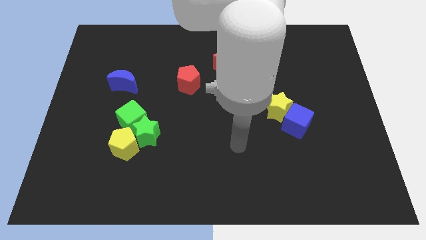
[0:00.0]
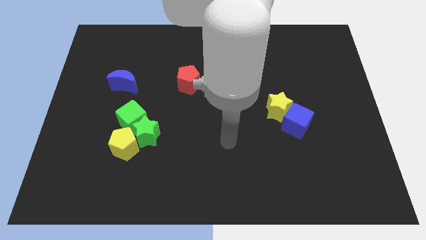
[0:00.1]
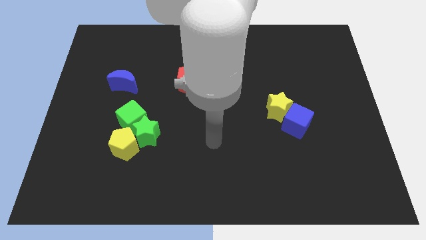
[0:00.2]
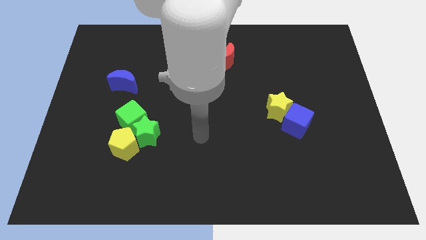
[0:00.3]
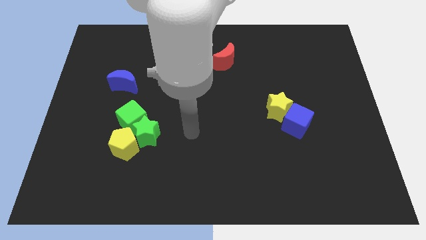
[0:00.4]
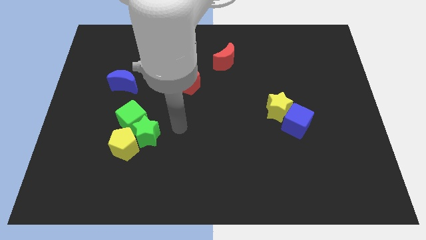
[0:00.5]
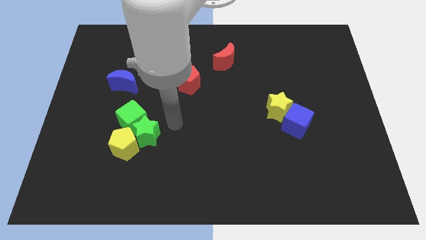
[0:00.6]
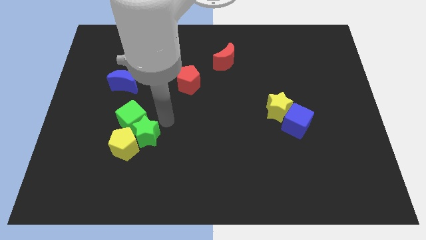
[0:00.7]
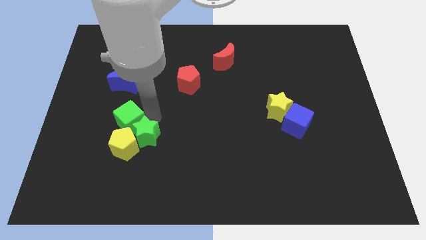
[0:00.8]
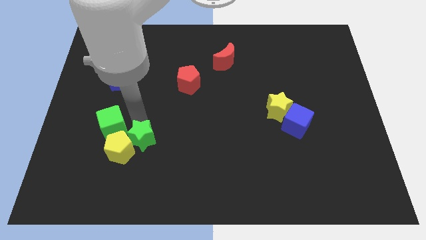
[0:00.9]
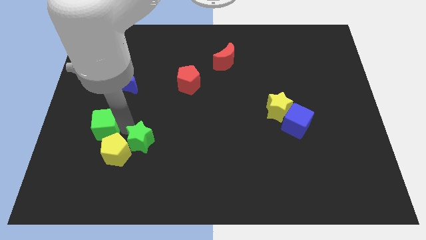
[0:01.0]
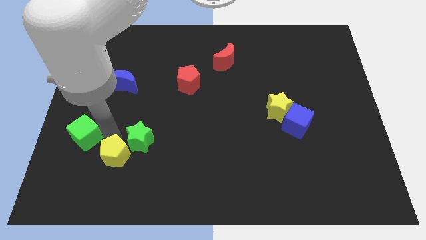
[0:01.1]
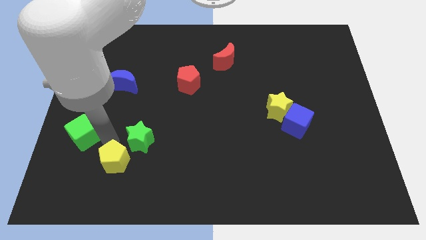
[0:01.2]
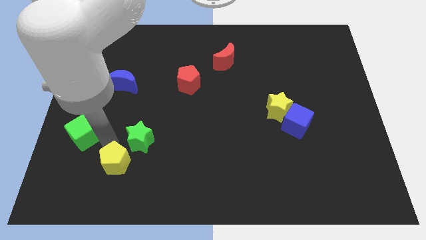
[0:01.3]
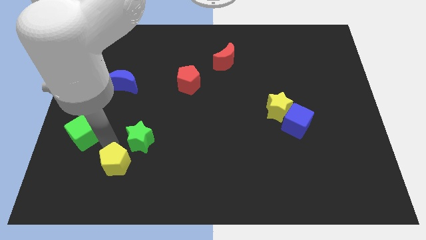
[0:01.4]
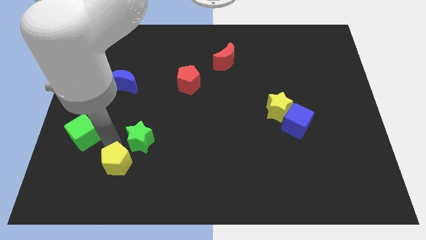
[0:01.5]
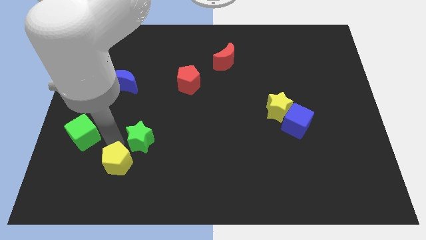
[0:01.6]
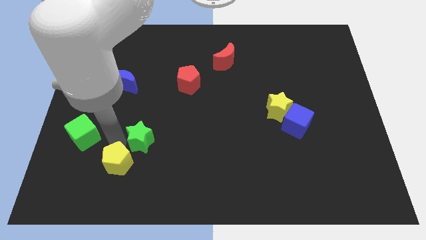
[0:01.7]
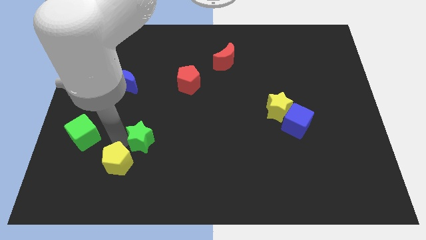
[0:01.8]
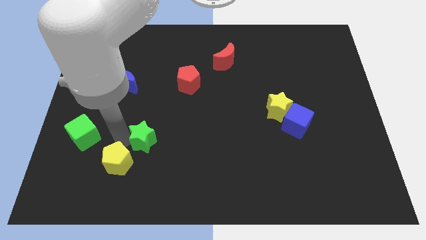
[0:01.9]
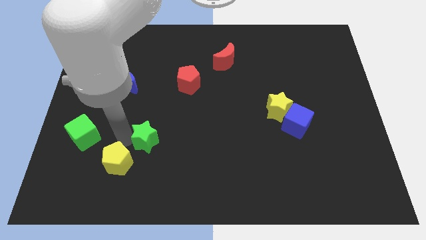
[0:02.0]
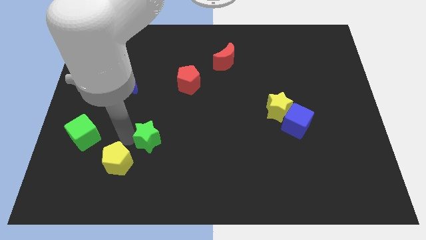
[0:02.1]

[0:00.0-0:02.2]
move the green star away from the green cube and yellow pentagon

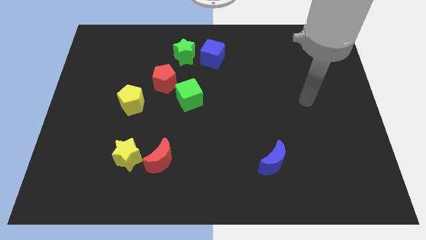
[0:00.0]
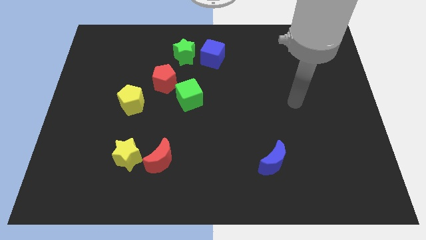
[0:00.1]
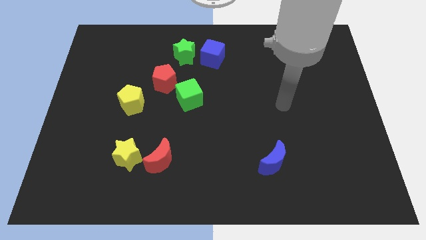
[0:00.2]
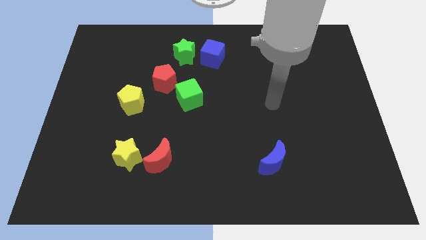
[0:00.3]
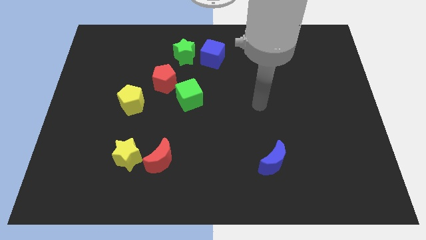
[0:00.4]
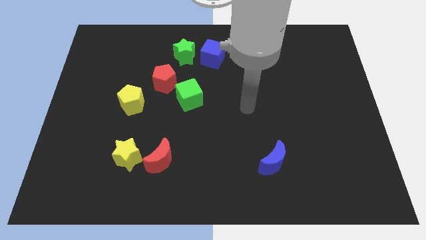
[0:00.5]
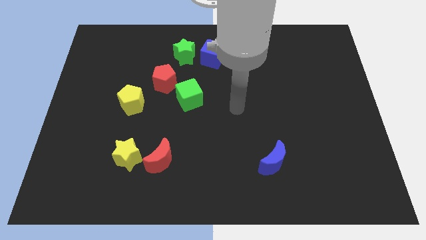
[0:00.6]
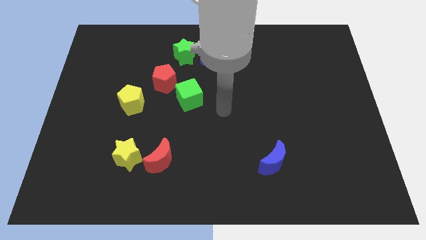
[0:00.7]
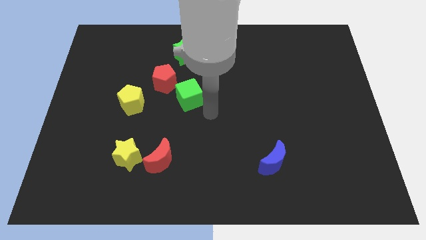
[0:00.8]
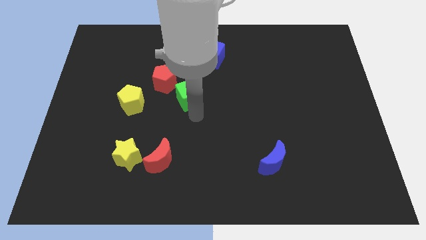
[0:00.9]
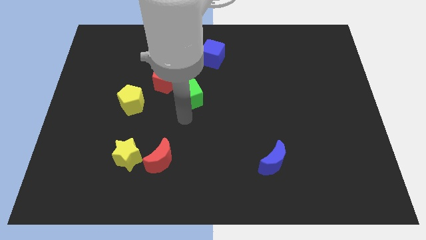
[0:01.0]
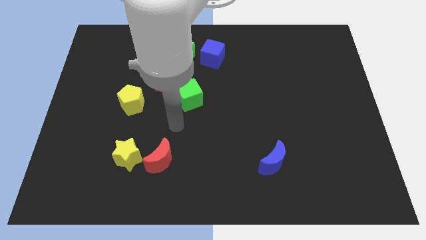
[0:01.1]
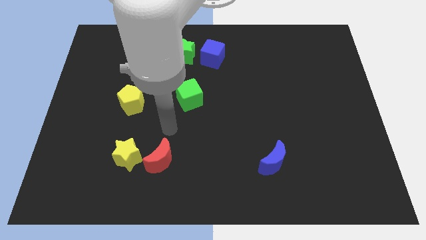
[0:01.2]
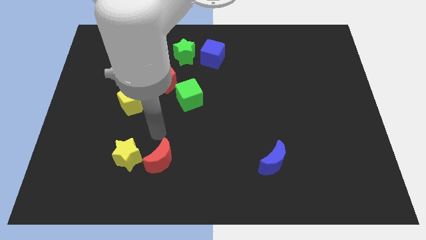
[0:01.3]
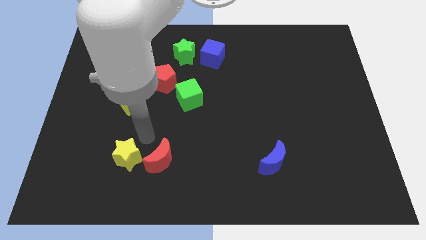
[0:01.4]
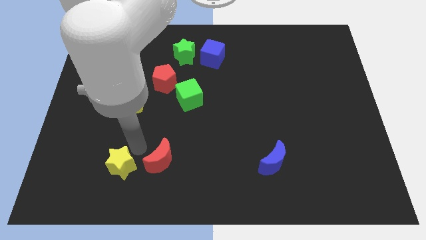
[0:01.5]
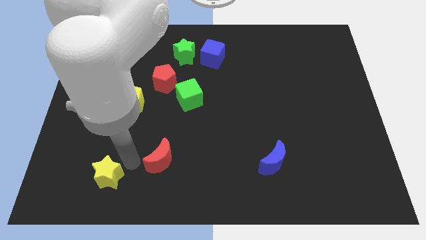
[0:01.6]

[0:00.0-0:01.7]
separate the red moon from the yellow star

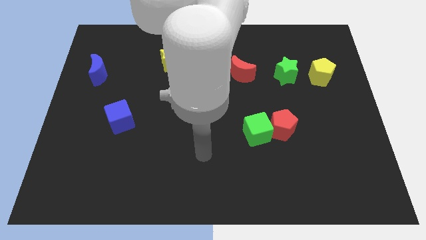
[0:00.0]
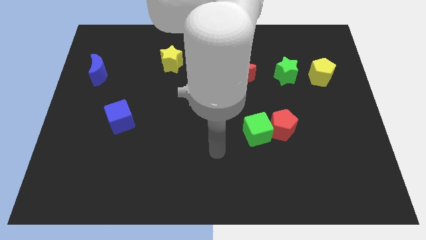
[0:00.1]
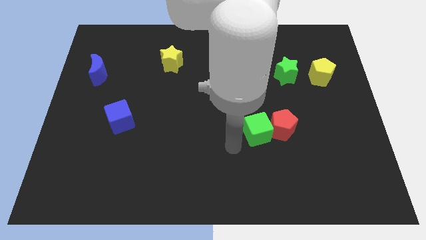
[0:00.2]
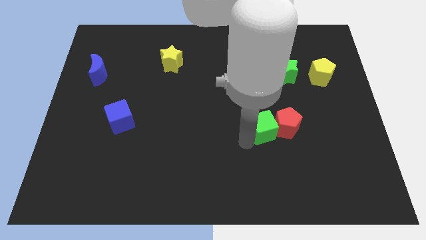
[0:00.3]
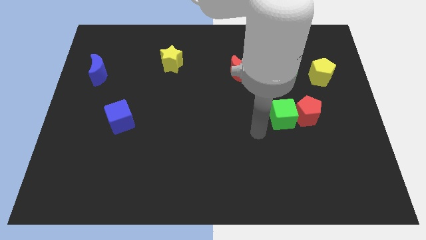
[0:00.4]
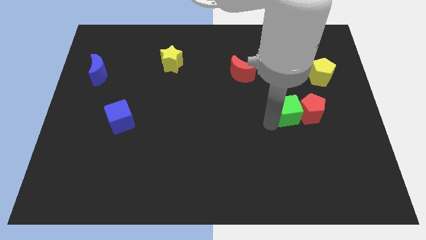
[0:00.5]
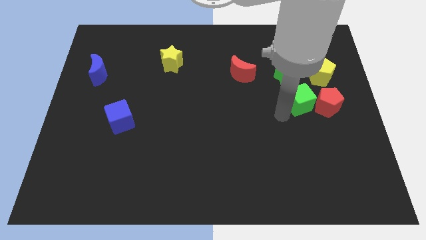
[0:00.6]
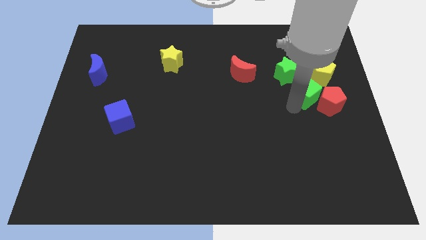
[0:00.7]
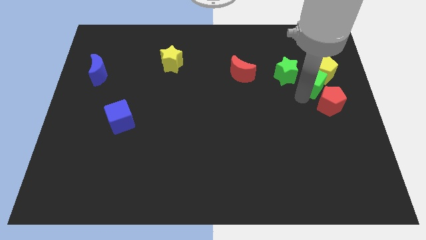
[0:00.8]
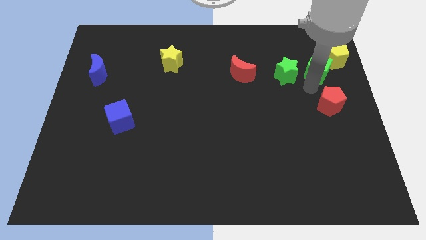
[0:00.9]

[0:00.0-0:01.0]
pull the red pentagon apart from the green cube

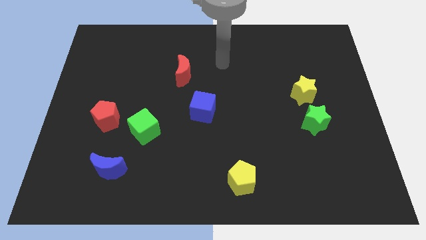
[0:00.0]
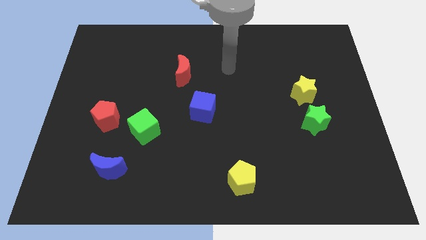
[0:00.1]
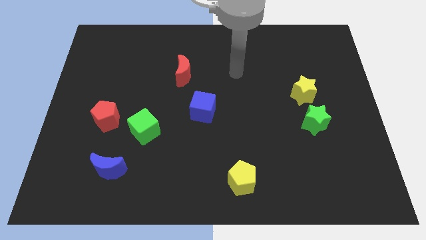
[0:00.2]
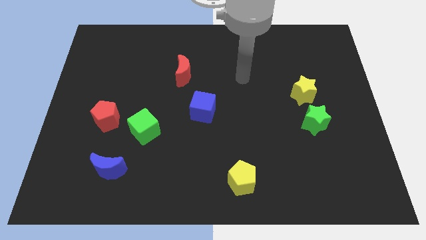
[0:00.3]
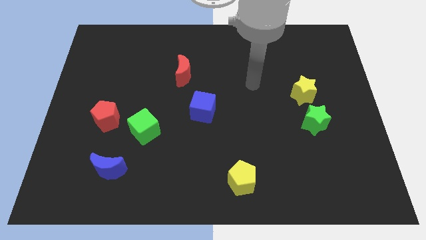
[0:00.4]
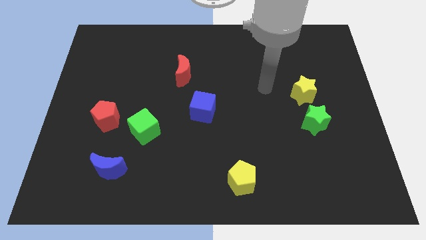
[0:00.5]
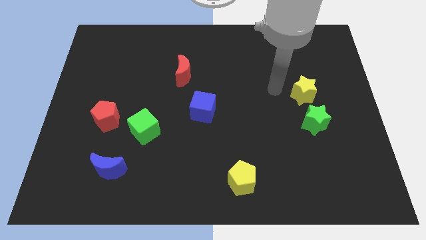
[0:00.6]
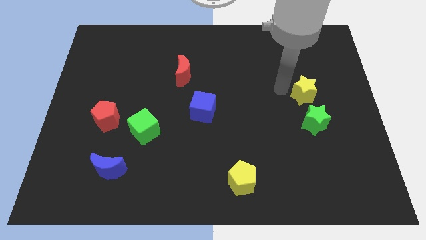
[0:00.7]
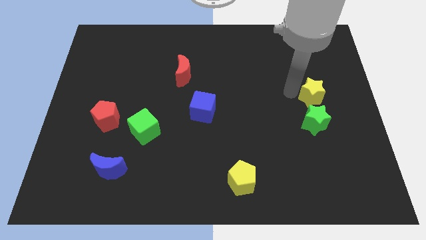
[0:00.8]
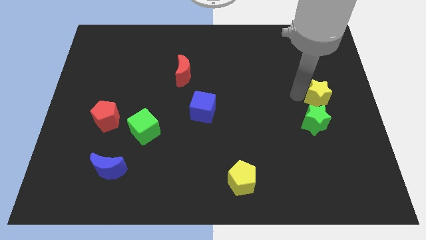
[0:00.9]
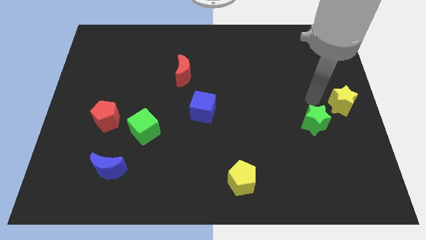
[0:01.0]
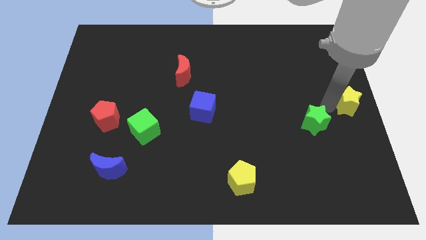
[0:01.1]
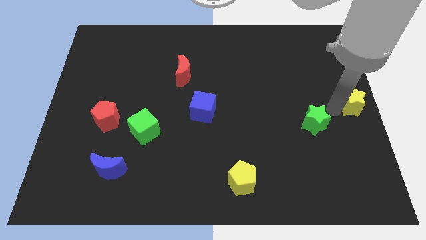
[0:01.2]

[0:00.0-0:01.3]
separate the green star from the yellow star

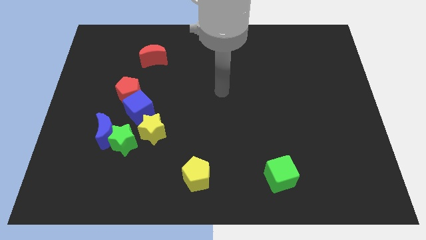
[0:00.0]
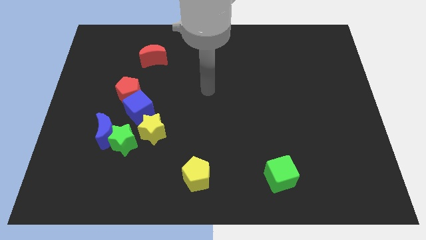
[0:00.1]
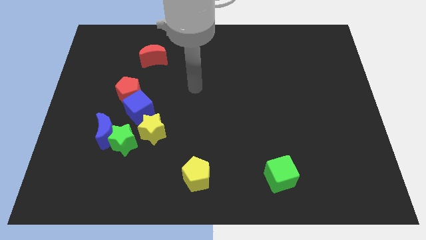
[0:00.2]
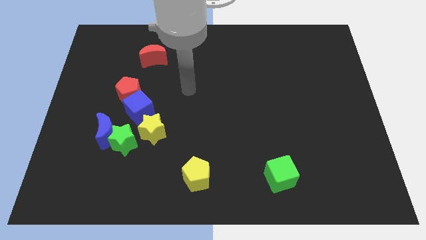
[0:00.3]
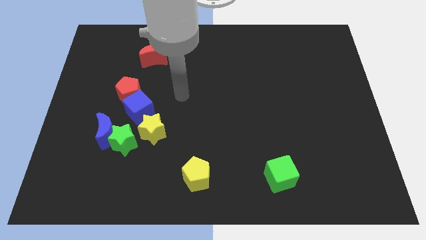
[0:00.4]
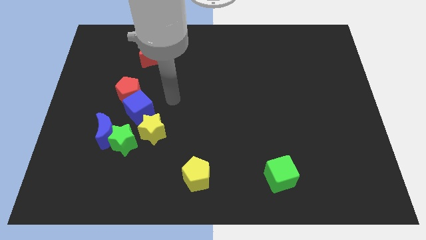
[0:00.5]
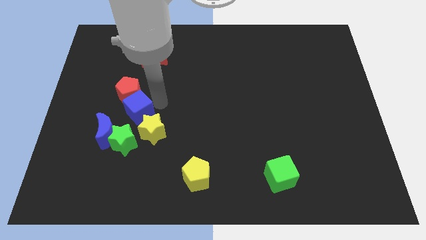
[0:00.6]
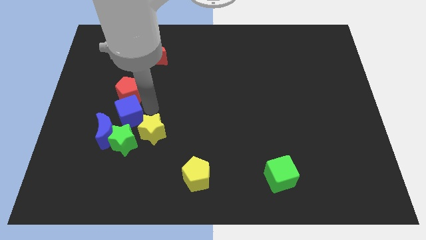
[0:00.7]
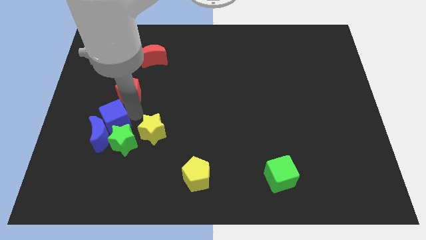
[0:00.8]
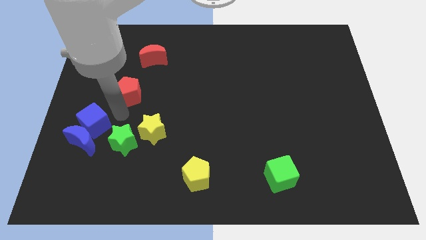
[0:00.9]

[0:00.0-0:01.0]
move the red pentagon away from the blue cube

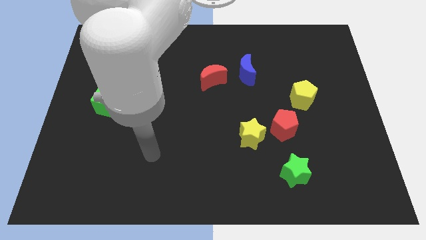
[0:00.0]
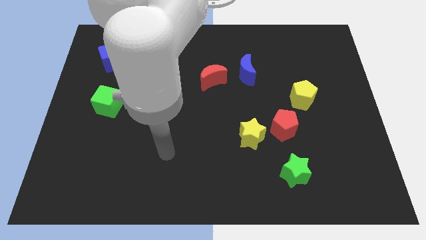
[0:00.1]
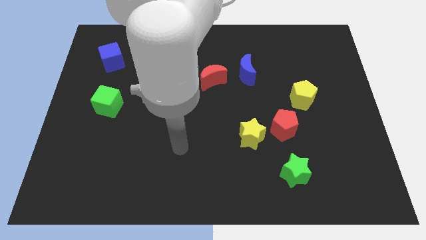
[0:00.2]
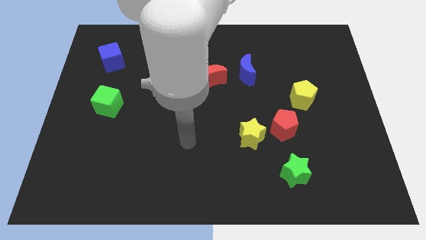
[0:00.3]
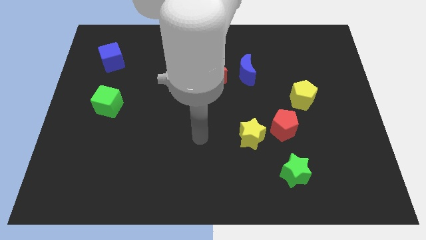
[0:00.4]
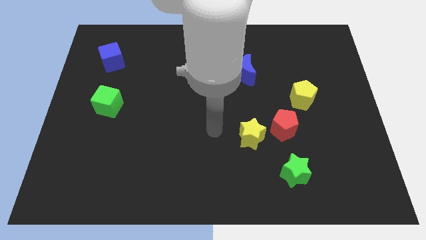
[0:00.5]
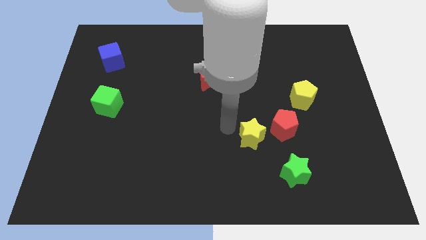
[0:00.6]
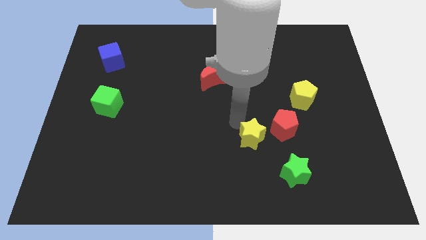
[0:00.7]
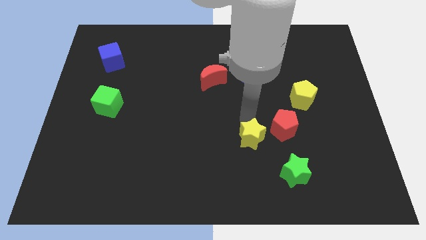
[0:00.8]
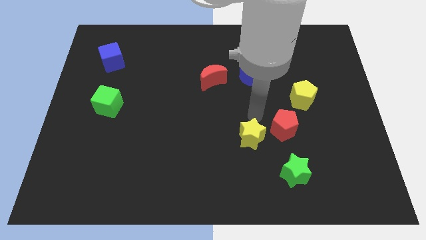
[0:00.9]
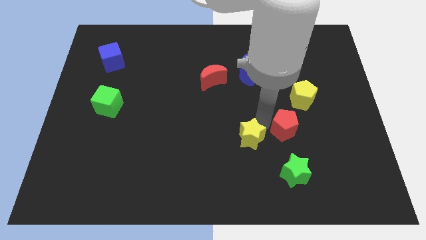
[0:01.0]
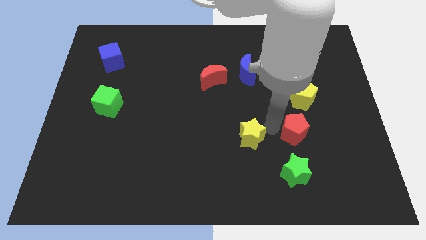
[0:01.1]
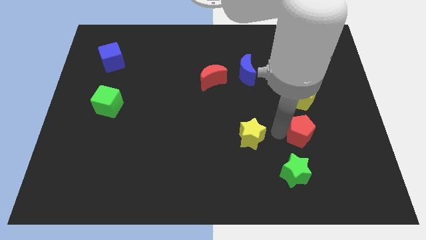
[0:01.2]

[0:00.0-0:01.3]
separate the yellow star from the red pentagon

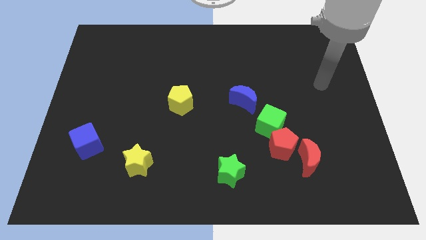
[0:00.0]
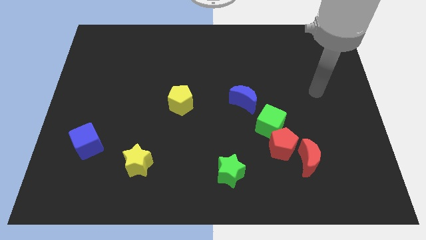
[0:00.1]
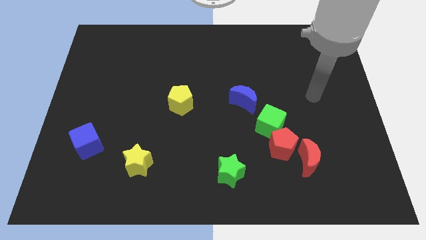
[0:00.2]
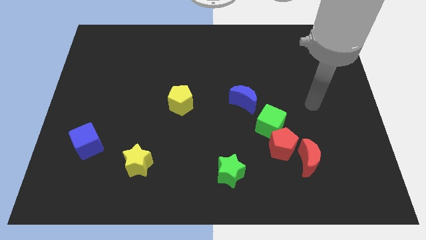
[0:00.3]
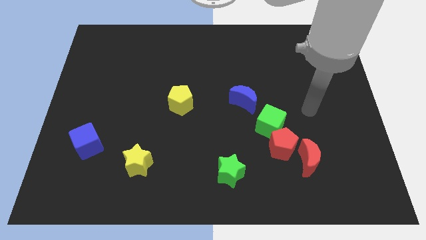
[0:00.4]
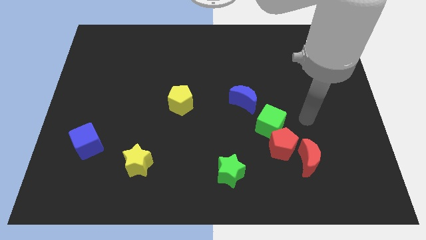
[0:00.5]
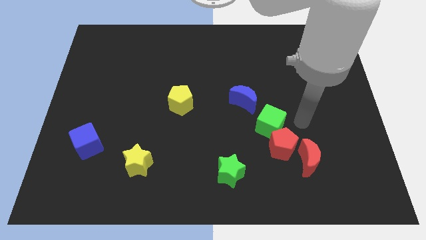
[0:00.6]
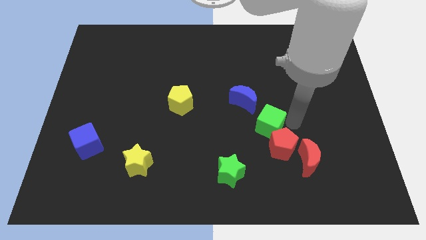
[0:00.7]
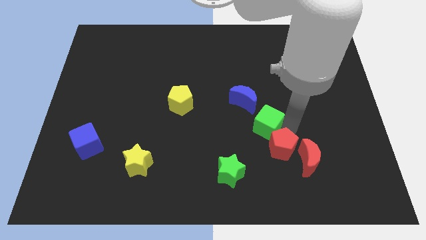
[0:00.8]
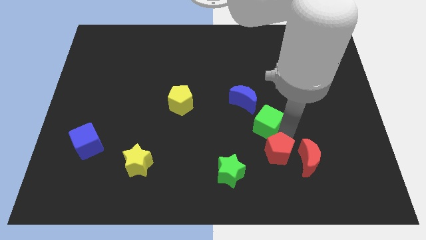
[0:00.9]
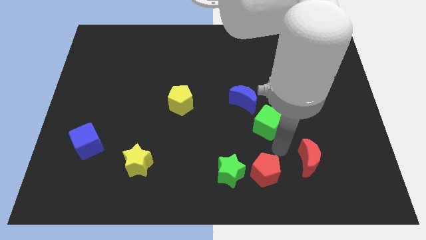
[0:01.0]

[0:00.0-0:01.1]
move the red moon away from the red pentagon
